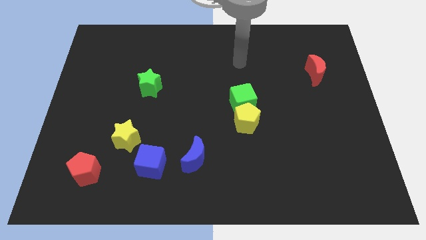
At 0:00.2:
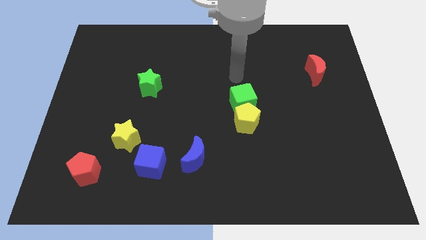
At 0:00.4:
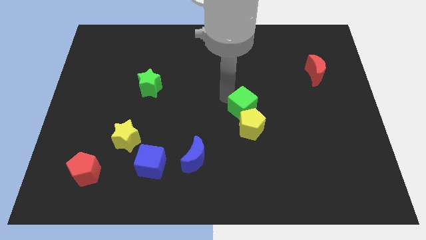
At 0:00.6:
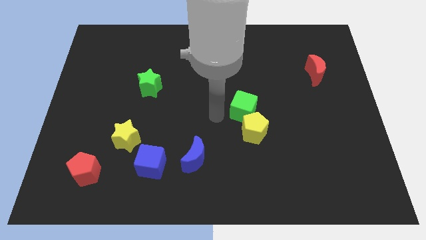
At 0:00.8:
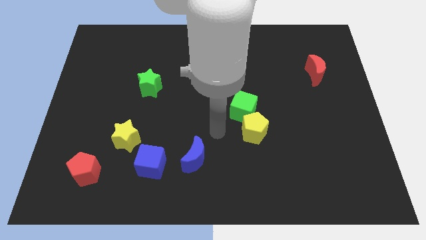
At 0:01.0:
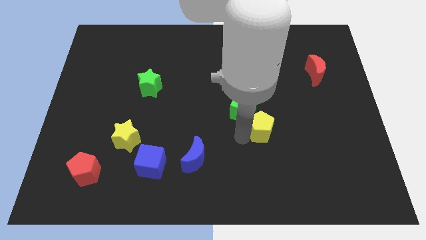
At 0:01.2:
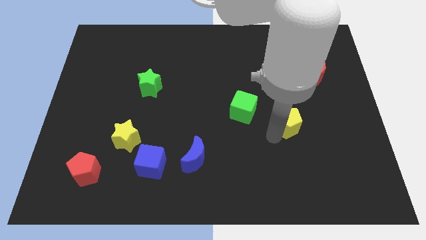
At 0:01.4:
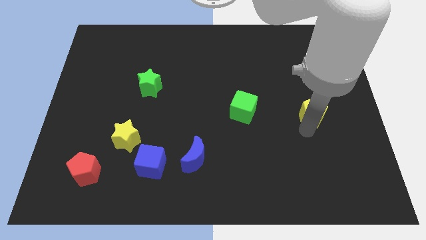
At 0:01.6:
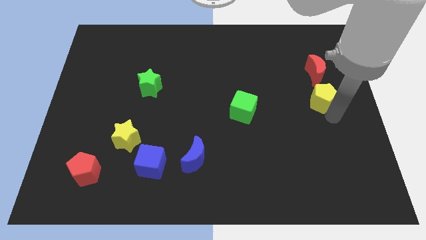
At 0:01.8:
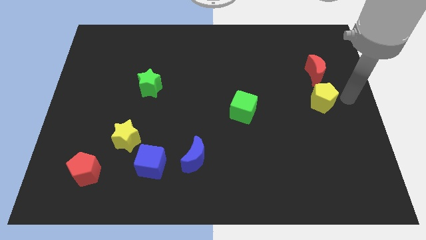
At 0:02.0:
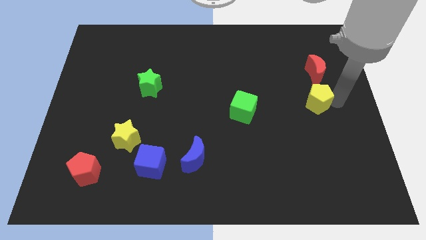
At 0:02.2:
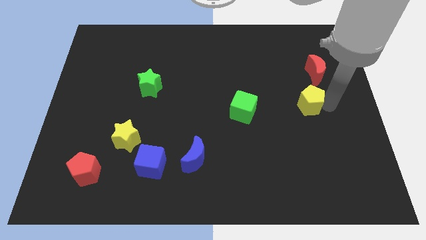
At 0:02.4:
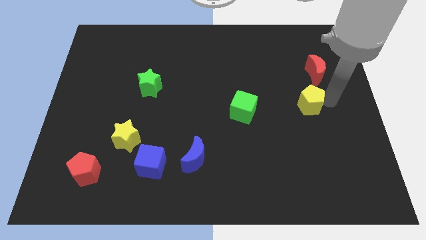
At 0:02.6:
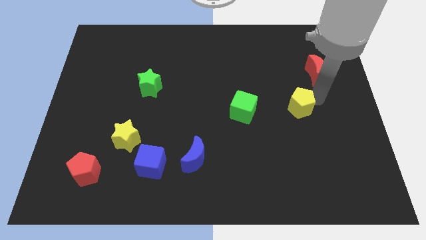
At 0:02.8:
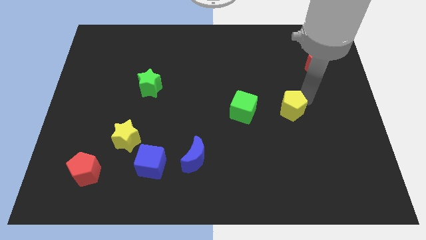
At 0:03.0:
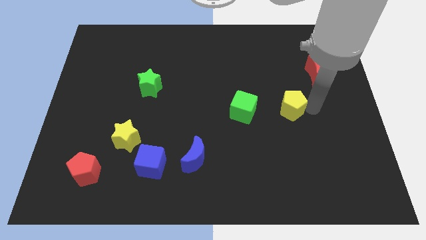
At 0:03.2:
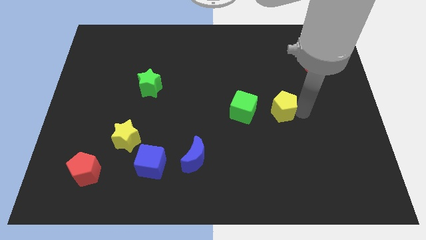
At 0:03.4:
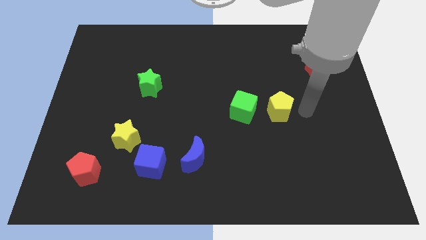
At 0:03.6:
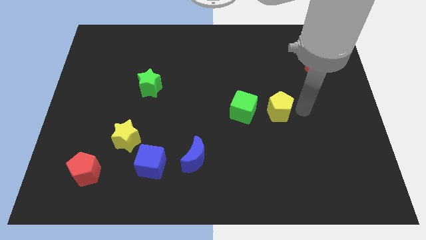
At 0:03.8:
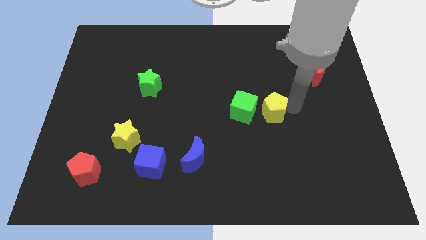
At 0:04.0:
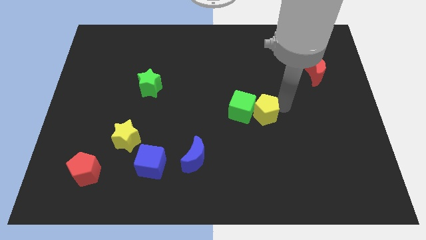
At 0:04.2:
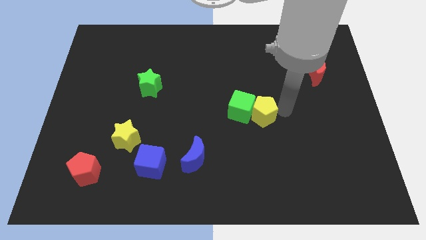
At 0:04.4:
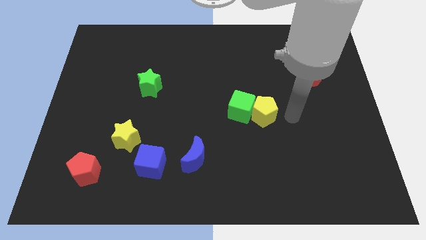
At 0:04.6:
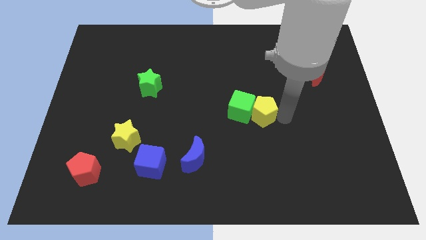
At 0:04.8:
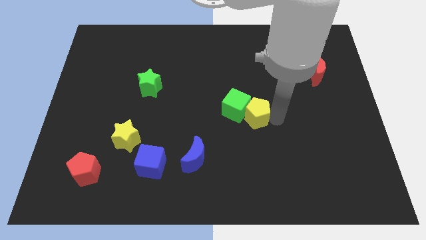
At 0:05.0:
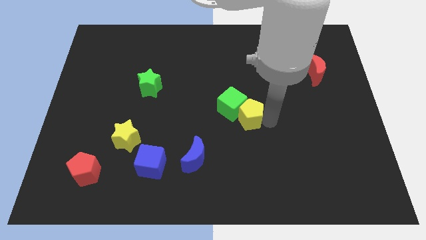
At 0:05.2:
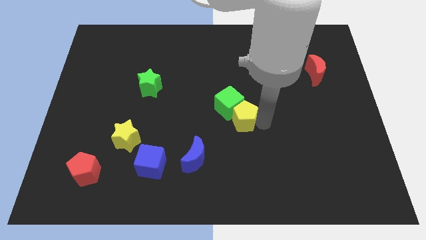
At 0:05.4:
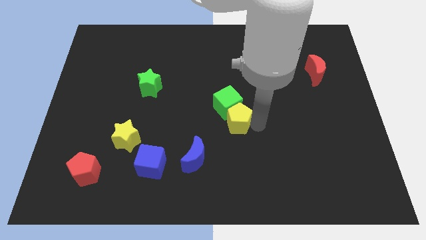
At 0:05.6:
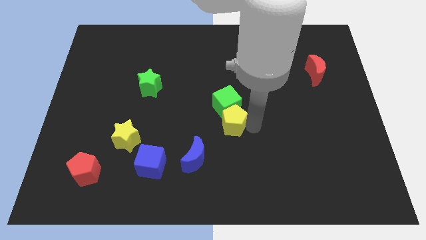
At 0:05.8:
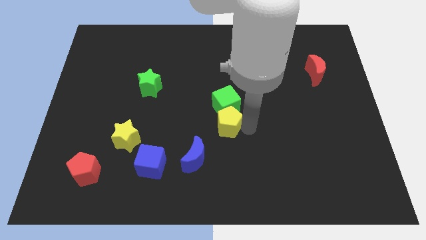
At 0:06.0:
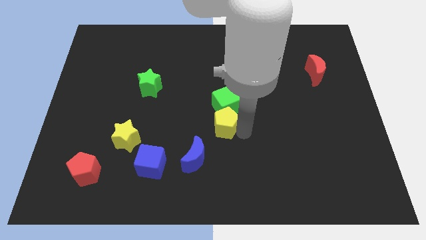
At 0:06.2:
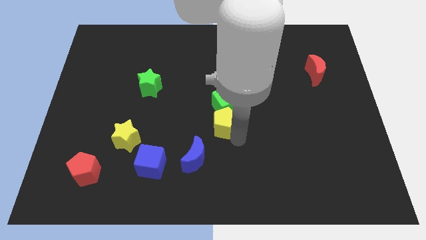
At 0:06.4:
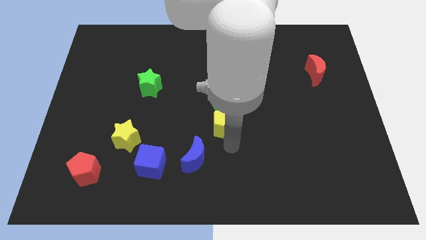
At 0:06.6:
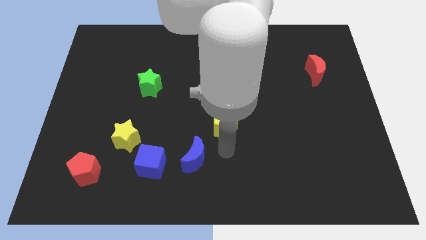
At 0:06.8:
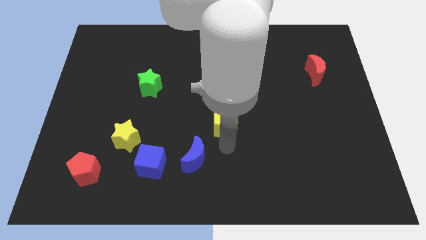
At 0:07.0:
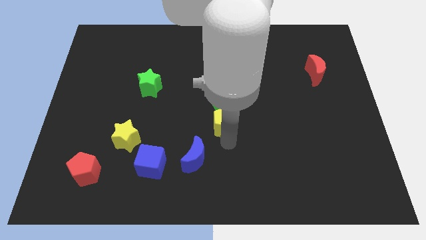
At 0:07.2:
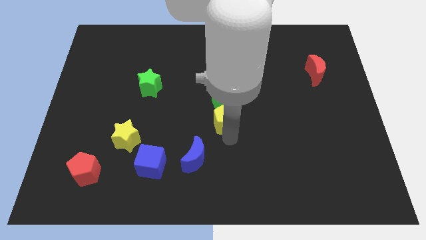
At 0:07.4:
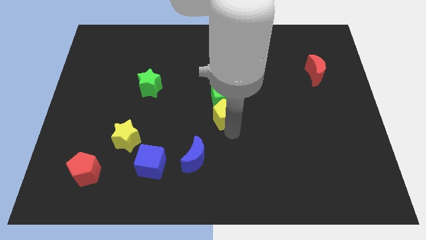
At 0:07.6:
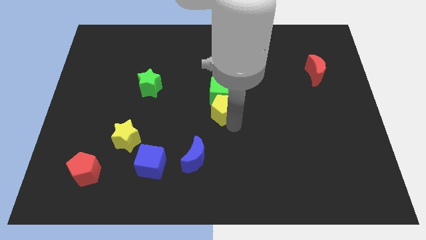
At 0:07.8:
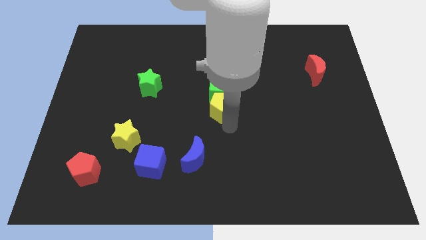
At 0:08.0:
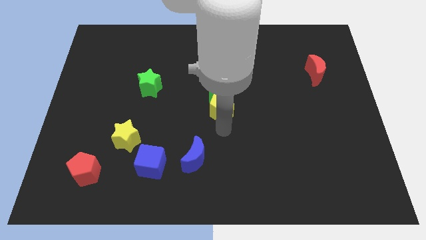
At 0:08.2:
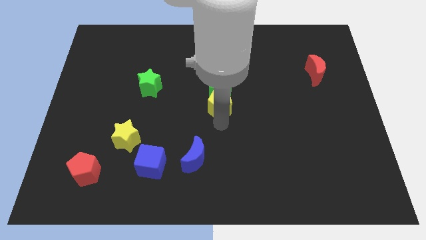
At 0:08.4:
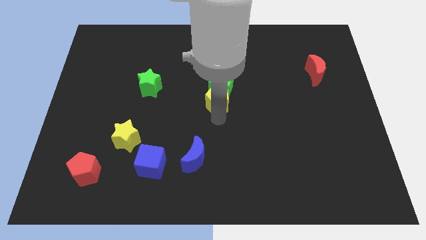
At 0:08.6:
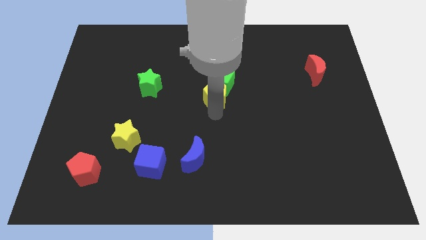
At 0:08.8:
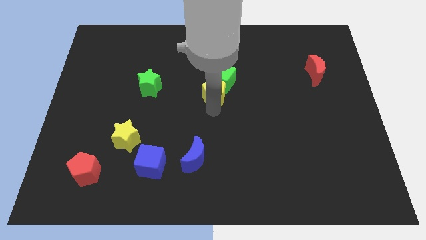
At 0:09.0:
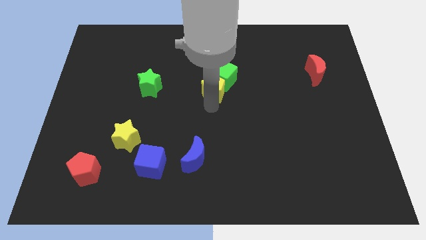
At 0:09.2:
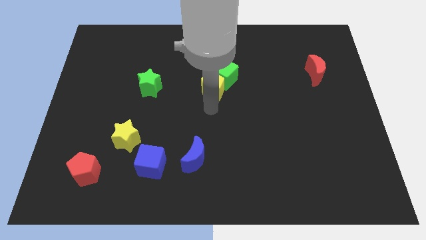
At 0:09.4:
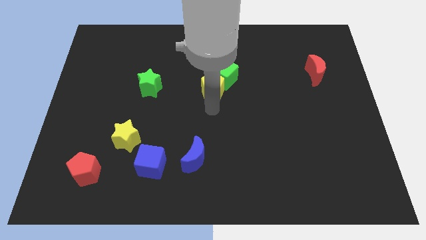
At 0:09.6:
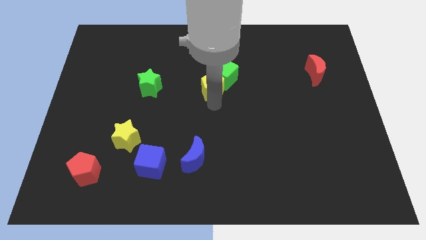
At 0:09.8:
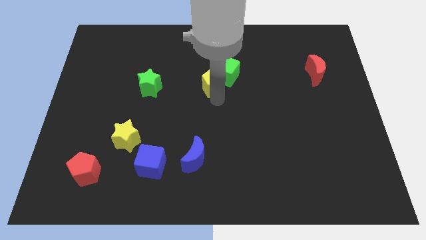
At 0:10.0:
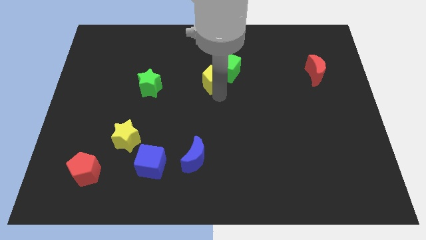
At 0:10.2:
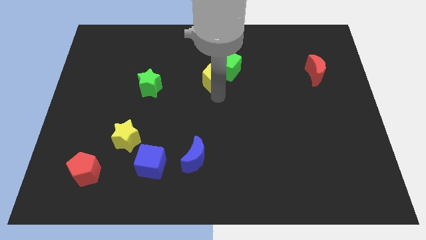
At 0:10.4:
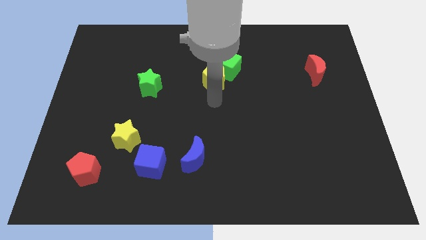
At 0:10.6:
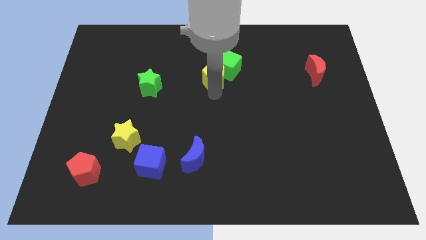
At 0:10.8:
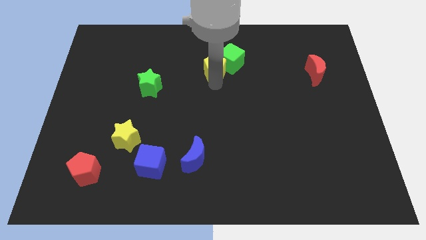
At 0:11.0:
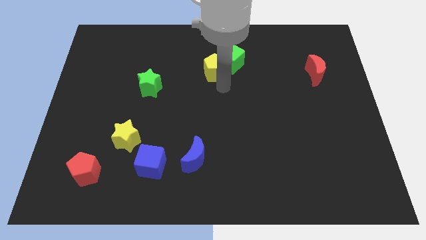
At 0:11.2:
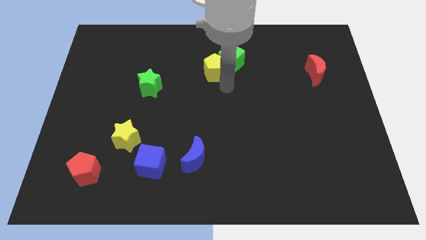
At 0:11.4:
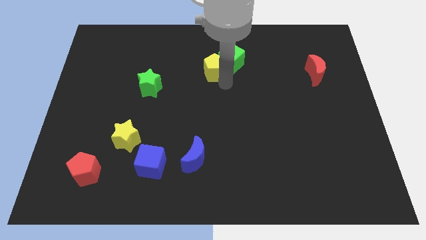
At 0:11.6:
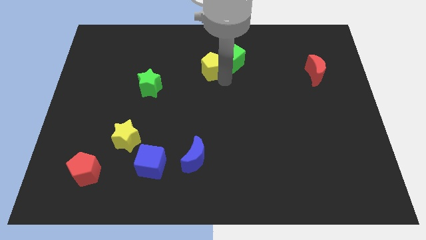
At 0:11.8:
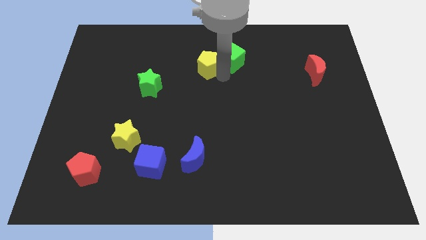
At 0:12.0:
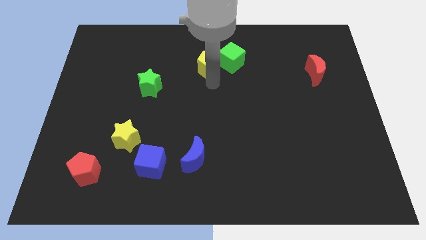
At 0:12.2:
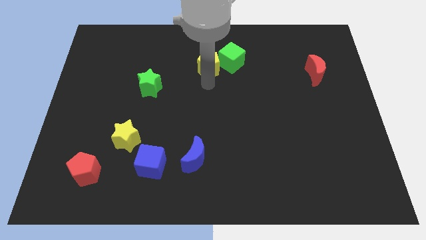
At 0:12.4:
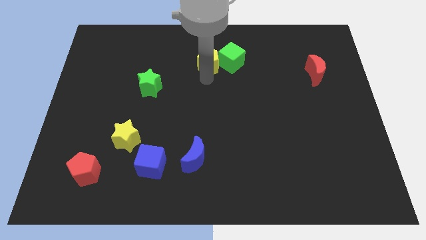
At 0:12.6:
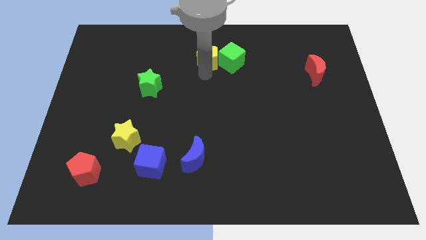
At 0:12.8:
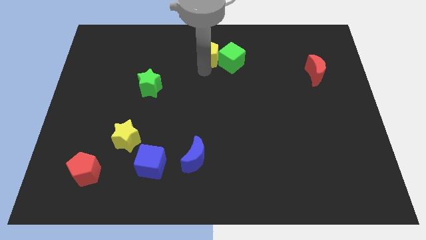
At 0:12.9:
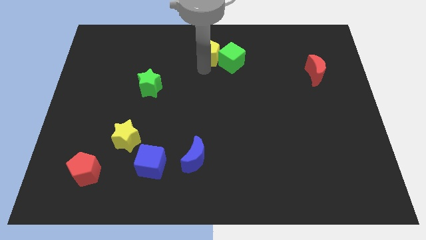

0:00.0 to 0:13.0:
slide the yellow pentagon to the top
